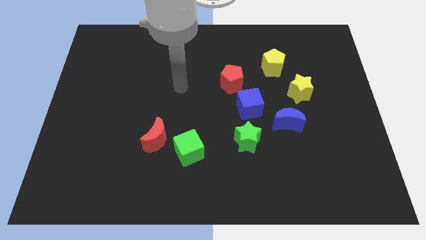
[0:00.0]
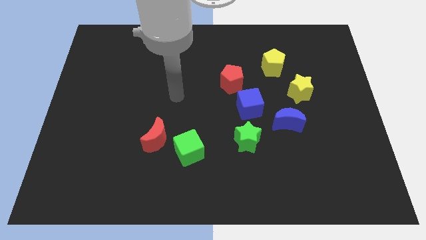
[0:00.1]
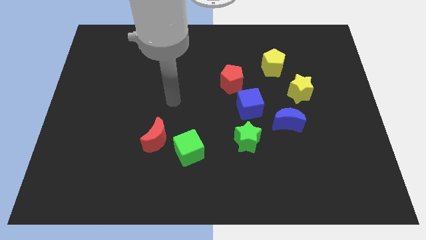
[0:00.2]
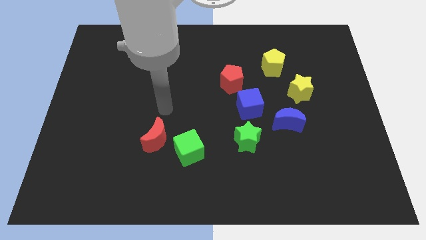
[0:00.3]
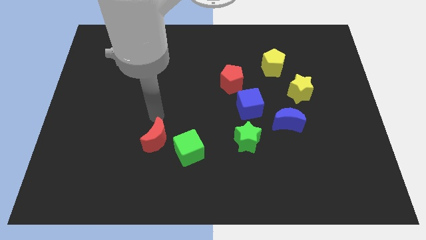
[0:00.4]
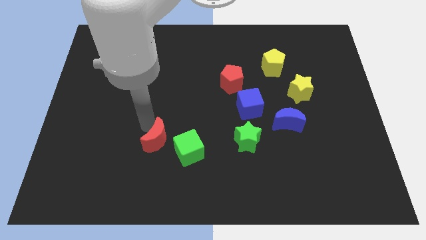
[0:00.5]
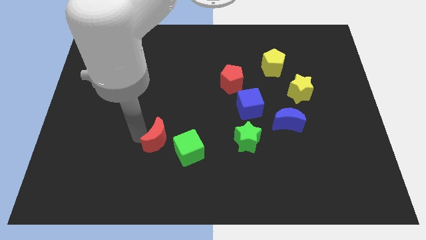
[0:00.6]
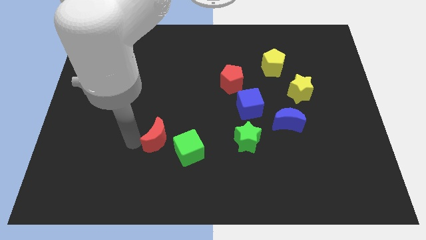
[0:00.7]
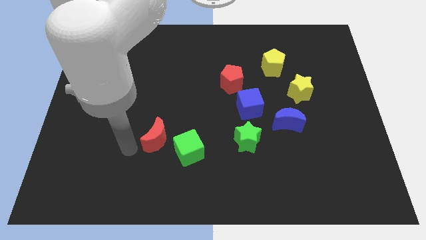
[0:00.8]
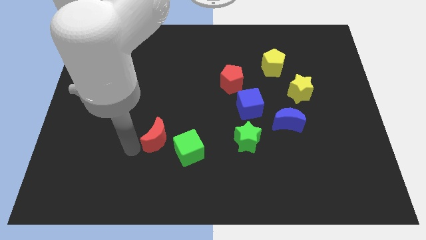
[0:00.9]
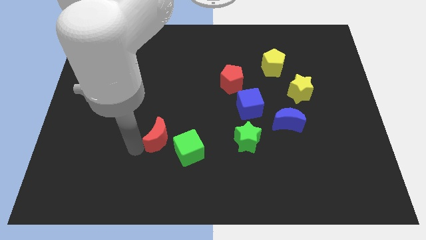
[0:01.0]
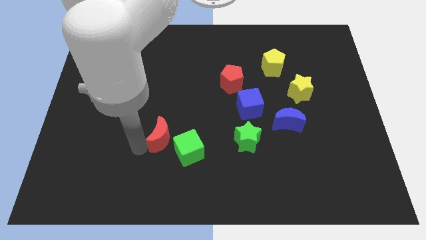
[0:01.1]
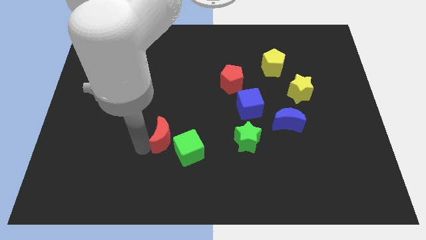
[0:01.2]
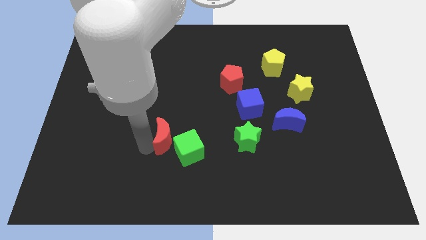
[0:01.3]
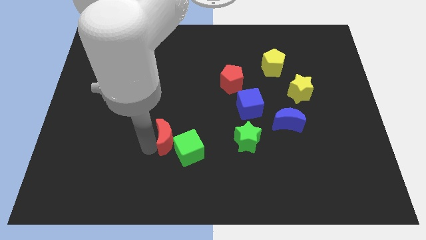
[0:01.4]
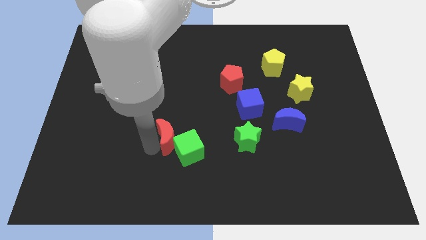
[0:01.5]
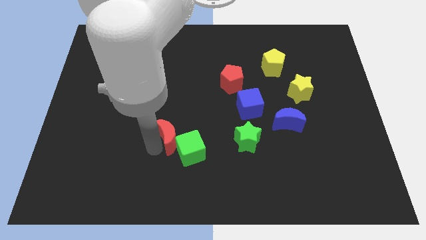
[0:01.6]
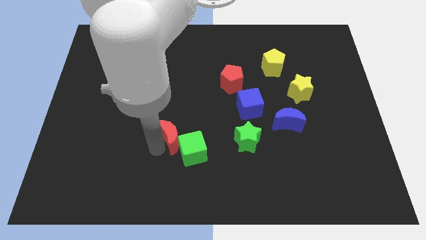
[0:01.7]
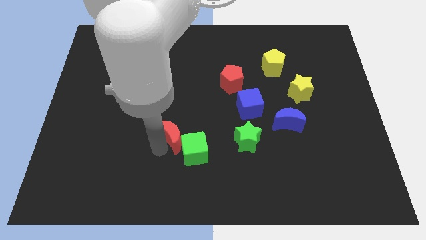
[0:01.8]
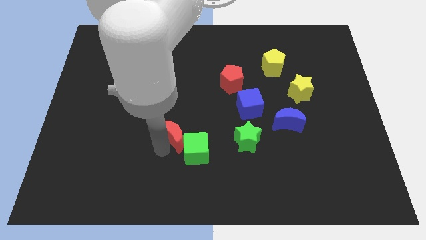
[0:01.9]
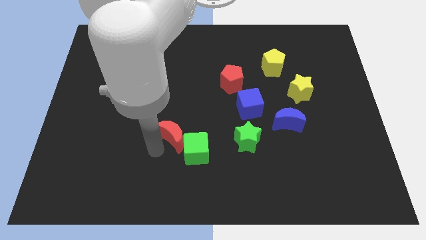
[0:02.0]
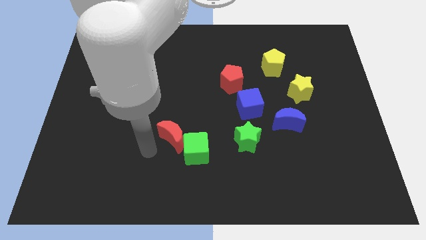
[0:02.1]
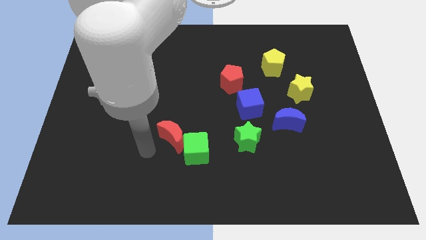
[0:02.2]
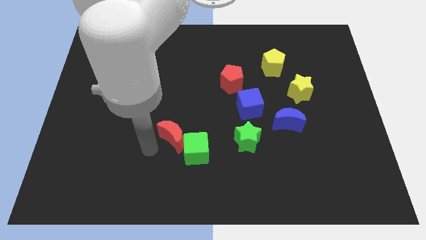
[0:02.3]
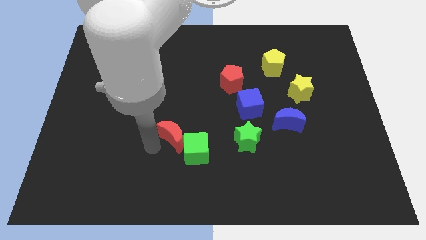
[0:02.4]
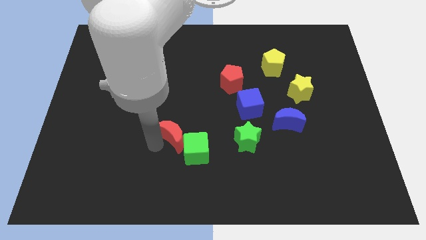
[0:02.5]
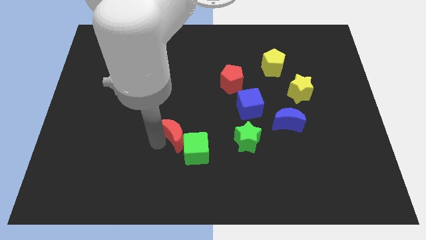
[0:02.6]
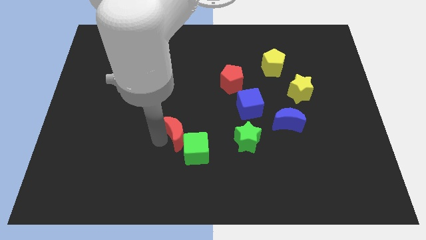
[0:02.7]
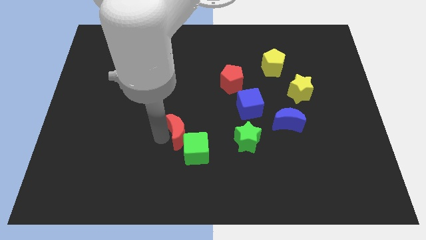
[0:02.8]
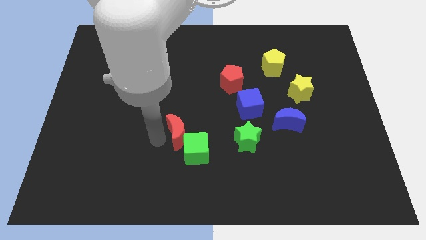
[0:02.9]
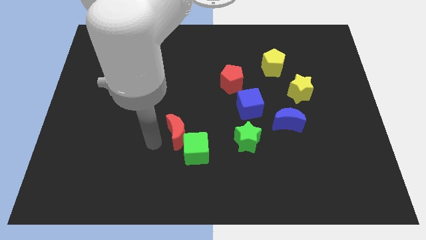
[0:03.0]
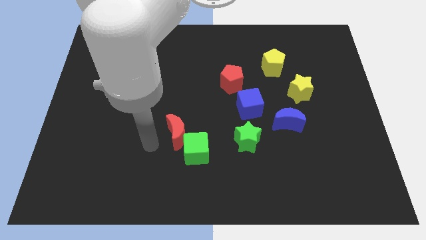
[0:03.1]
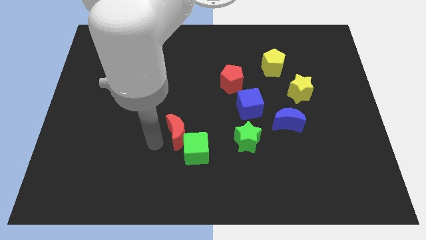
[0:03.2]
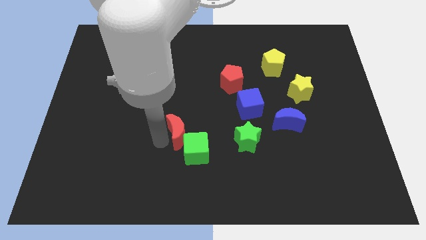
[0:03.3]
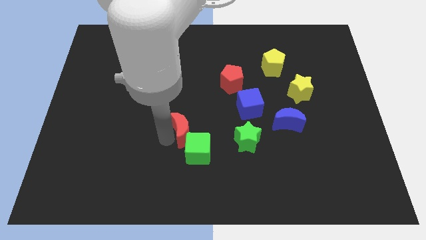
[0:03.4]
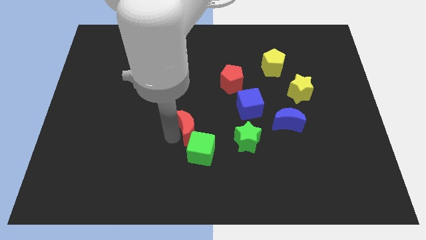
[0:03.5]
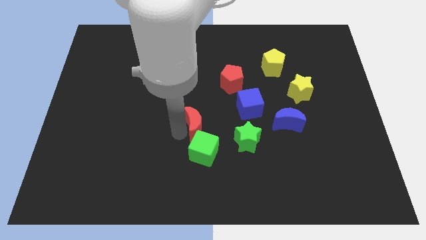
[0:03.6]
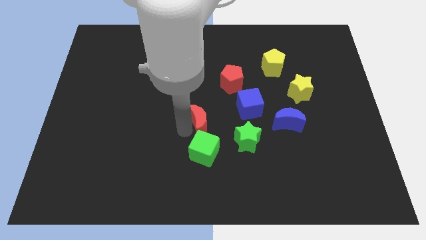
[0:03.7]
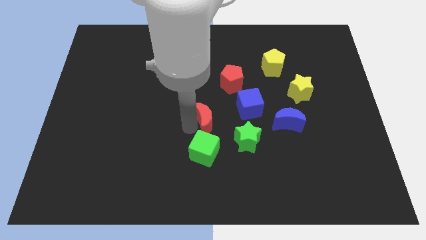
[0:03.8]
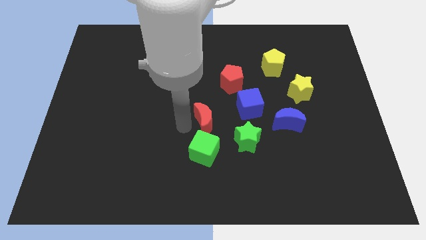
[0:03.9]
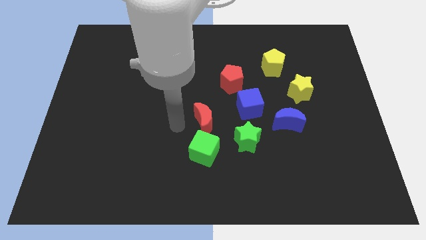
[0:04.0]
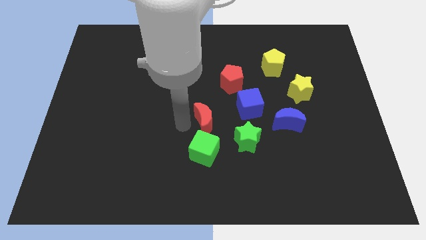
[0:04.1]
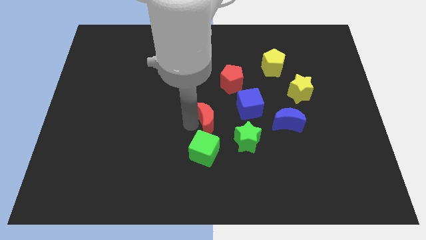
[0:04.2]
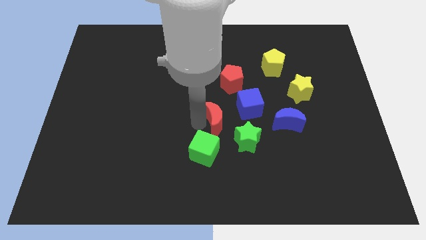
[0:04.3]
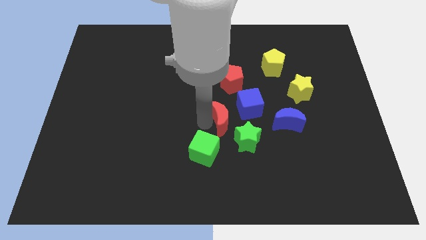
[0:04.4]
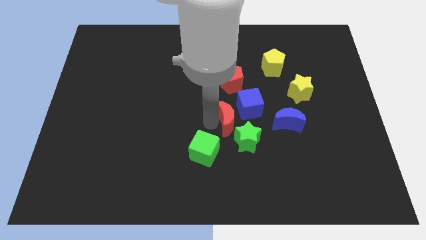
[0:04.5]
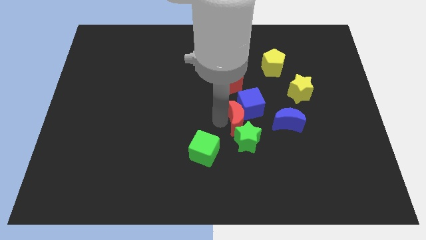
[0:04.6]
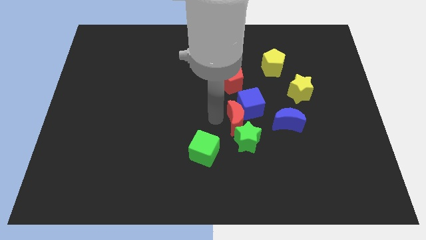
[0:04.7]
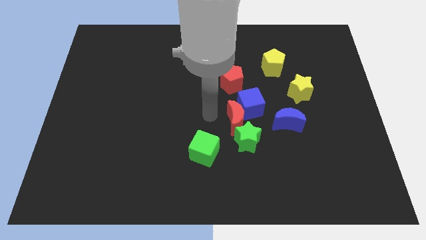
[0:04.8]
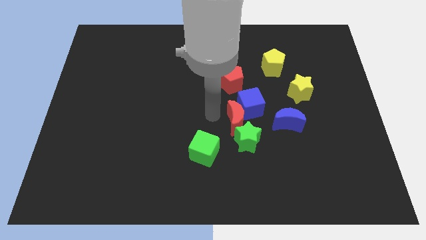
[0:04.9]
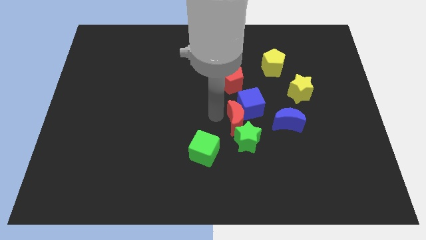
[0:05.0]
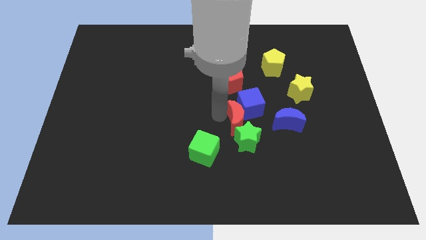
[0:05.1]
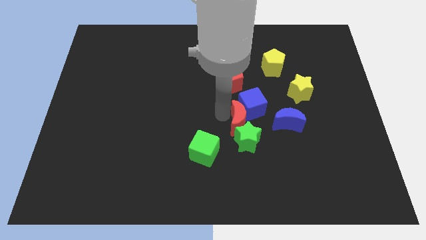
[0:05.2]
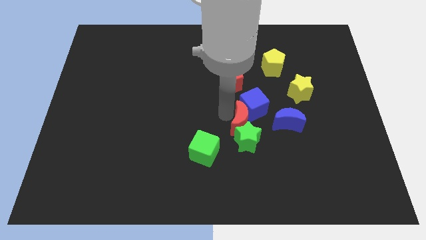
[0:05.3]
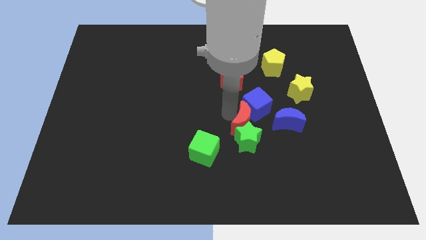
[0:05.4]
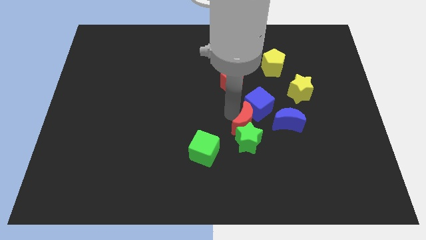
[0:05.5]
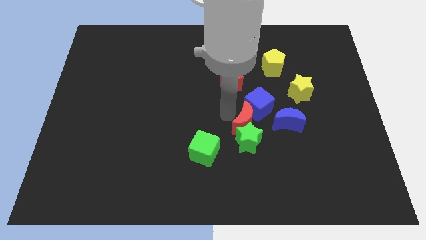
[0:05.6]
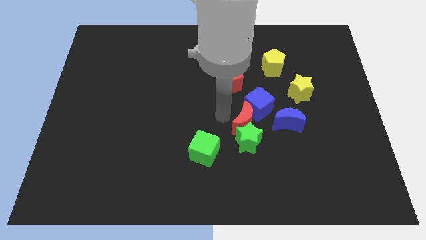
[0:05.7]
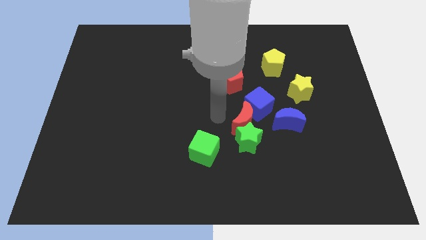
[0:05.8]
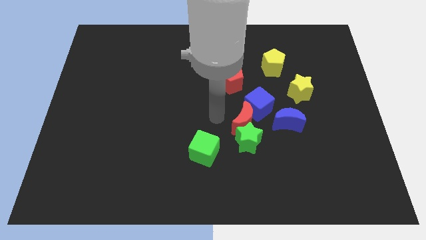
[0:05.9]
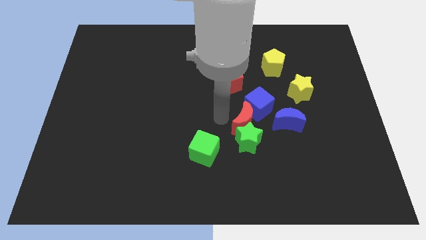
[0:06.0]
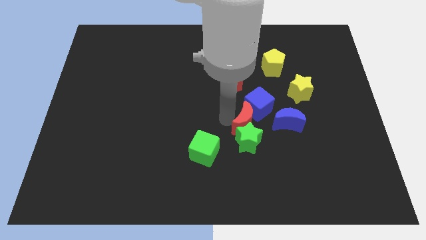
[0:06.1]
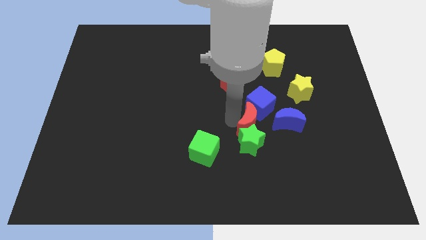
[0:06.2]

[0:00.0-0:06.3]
push the red moon to the right

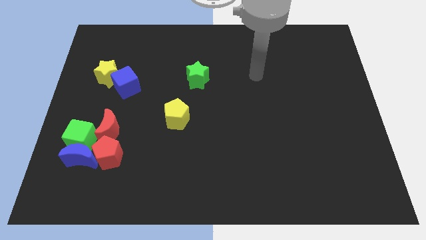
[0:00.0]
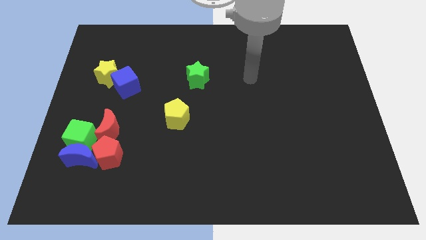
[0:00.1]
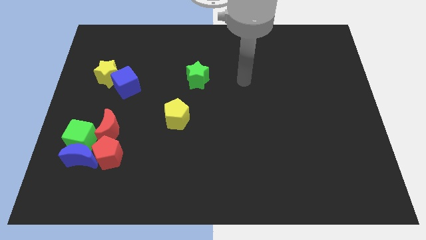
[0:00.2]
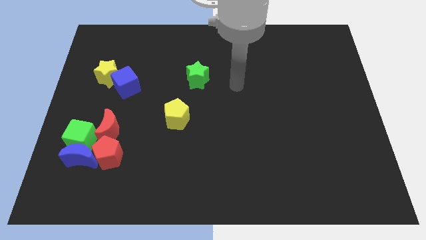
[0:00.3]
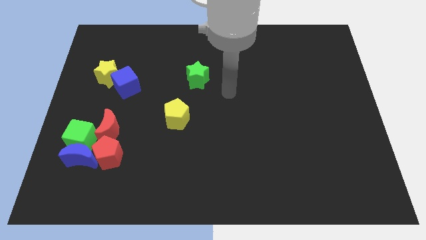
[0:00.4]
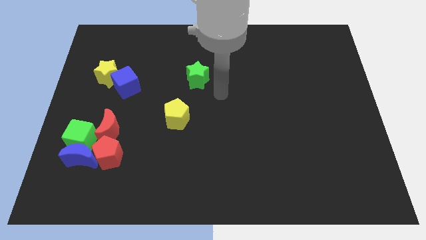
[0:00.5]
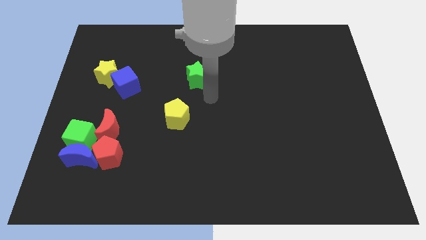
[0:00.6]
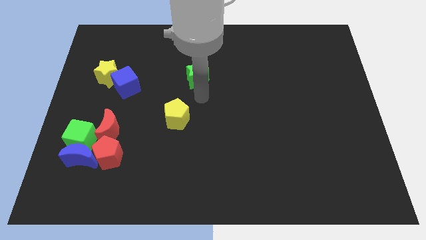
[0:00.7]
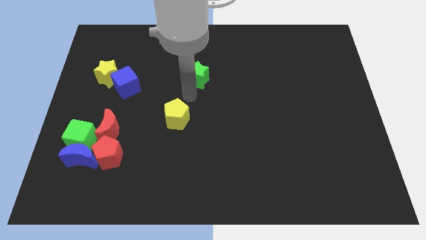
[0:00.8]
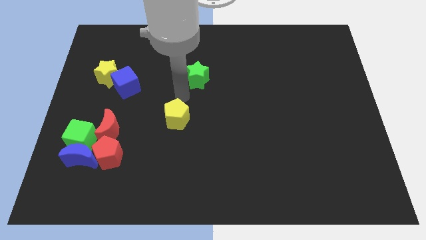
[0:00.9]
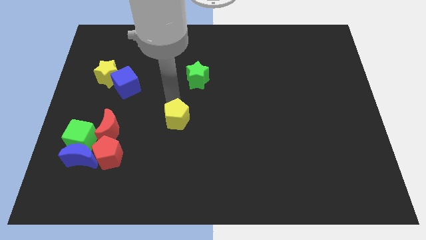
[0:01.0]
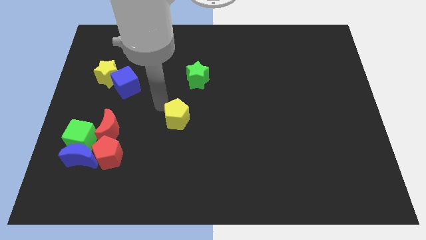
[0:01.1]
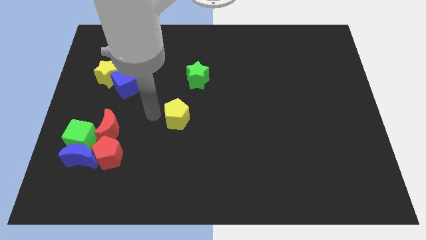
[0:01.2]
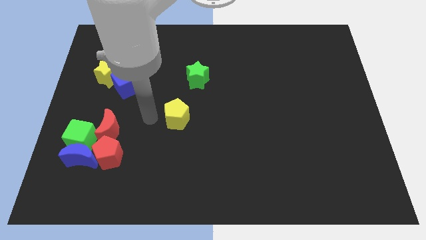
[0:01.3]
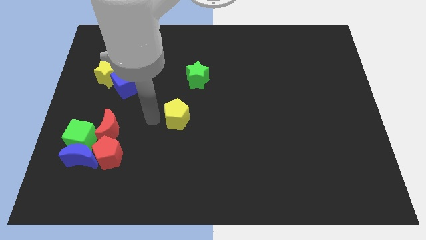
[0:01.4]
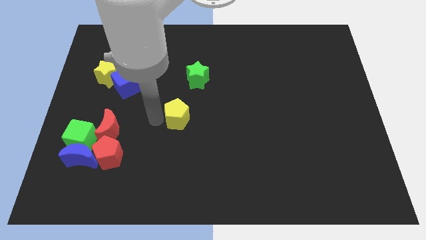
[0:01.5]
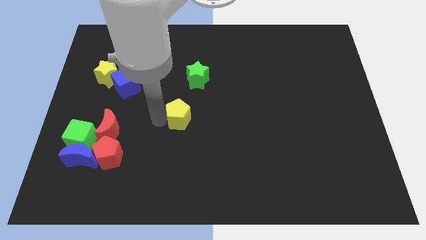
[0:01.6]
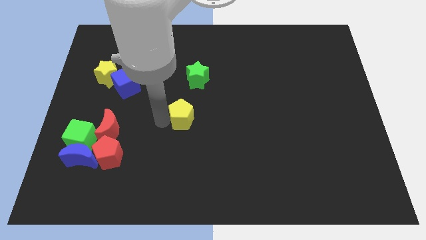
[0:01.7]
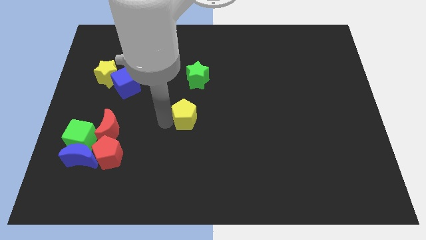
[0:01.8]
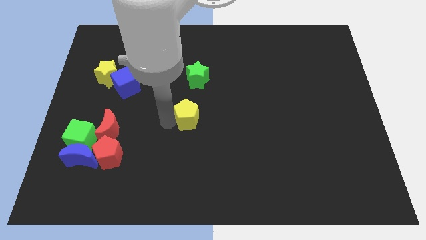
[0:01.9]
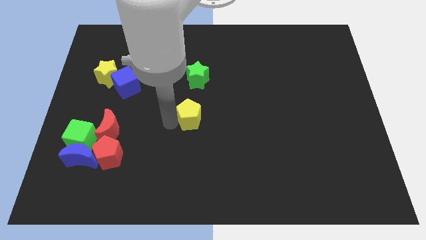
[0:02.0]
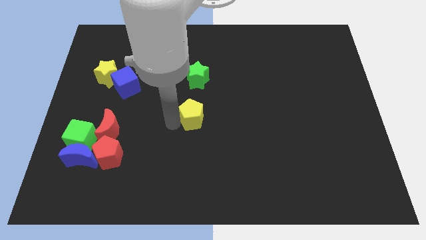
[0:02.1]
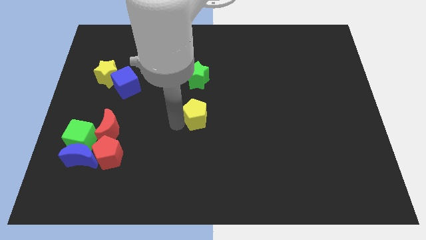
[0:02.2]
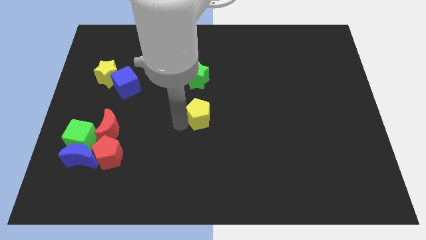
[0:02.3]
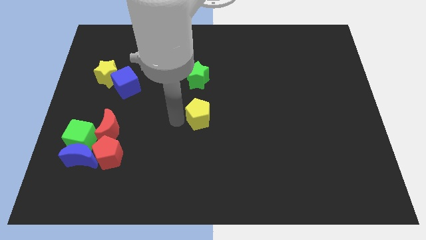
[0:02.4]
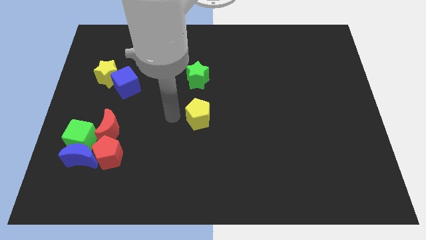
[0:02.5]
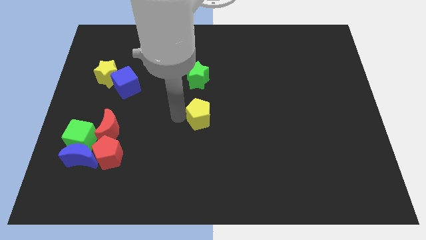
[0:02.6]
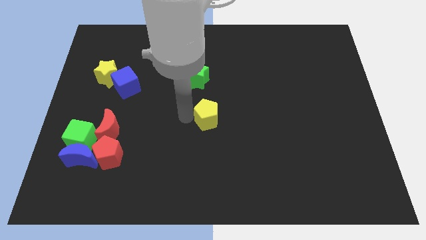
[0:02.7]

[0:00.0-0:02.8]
slide the yellow pentagon slightly to the right
